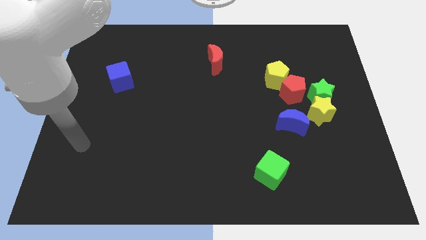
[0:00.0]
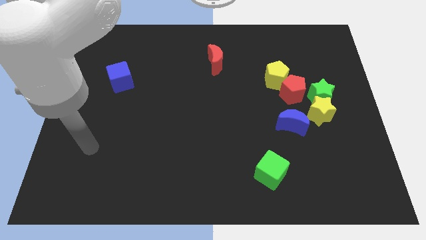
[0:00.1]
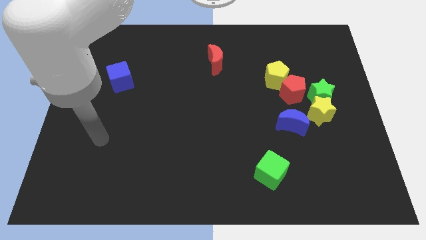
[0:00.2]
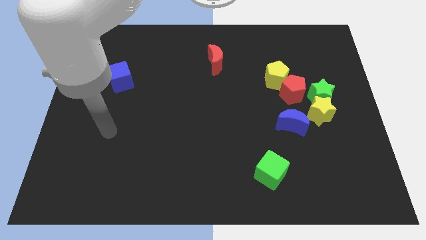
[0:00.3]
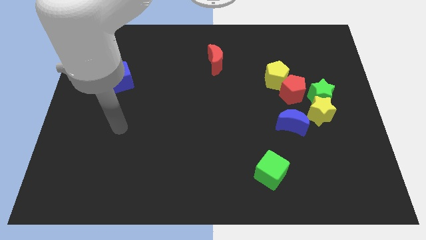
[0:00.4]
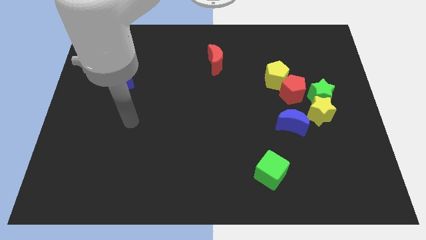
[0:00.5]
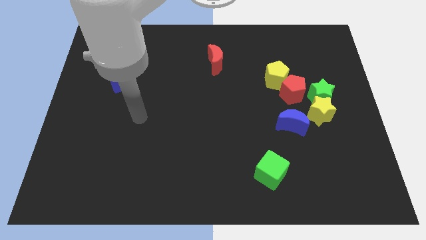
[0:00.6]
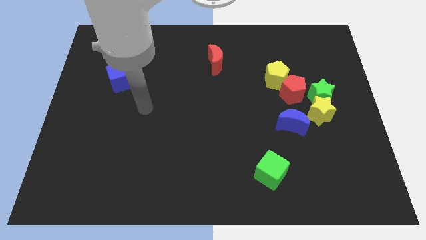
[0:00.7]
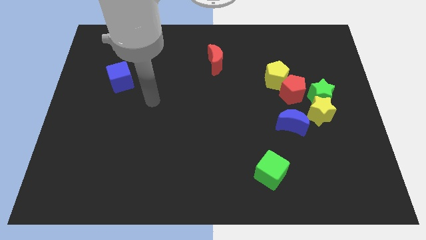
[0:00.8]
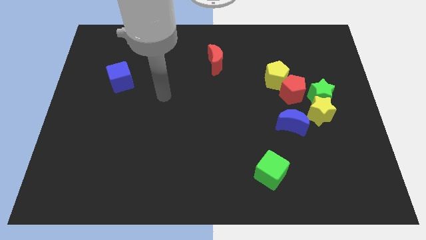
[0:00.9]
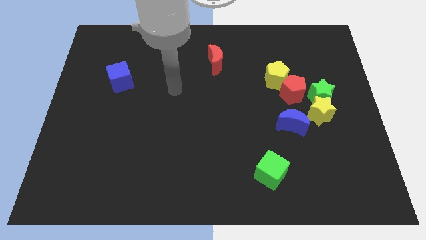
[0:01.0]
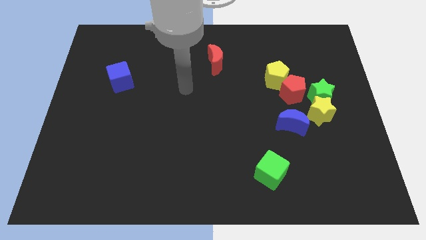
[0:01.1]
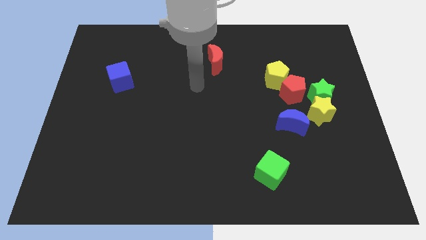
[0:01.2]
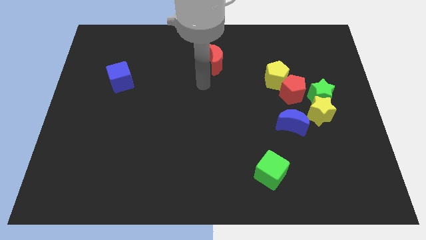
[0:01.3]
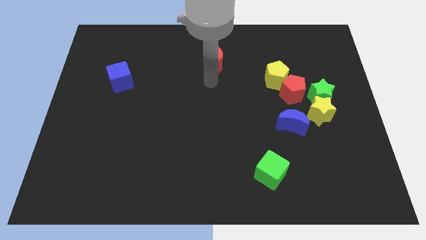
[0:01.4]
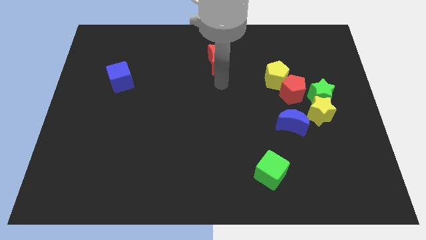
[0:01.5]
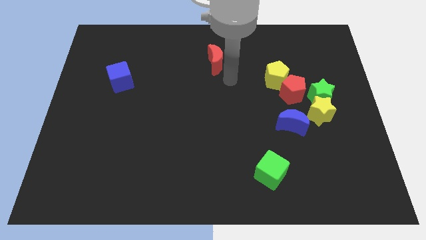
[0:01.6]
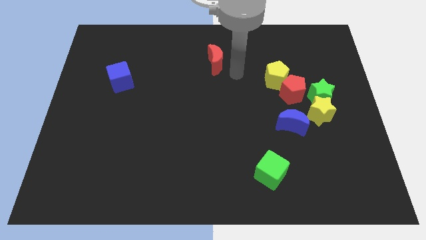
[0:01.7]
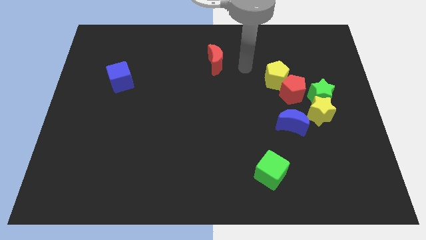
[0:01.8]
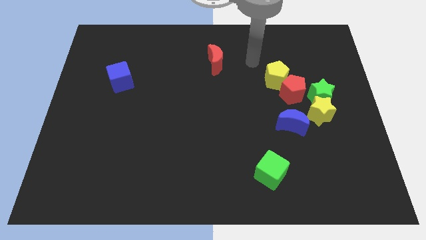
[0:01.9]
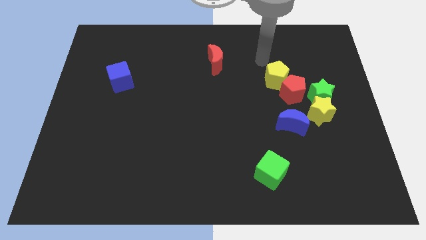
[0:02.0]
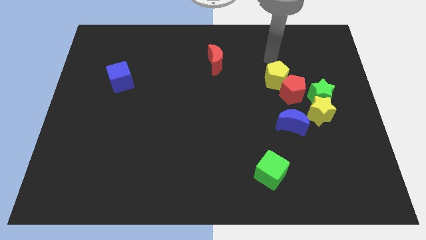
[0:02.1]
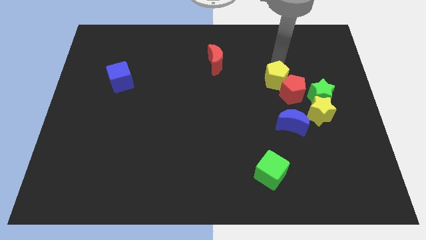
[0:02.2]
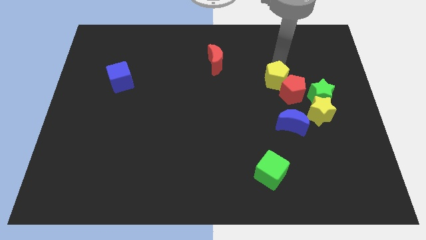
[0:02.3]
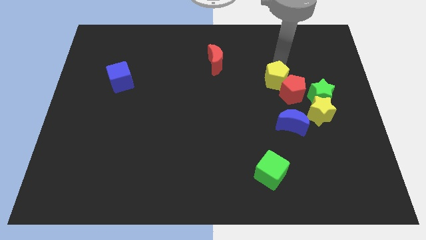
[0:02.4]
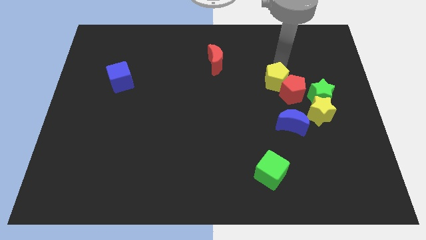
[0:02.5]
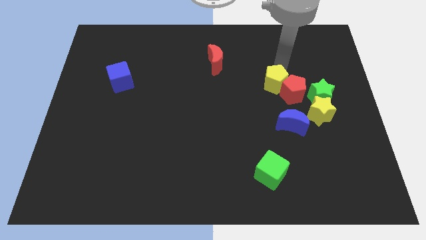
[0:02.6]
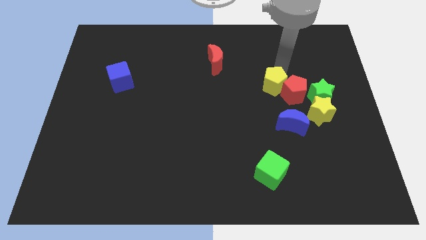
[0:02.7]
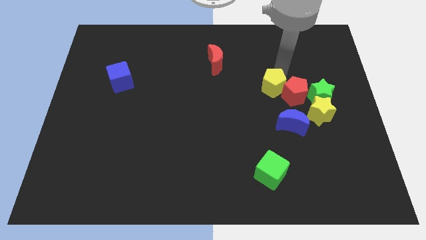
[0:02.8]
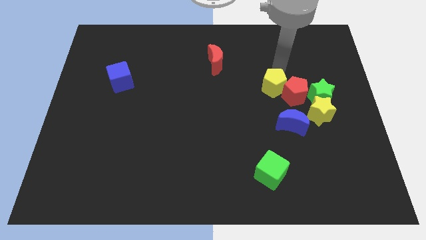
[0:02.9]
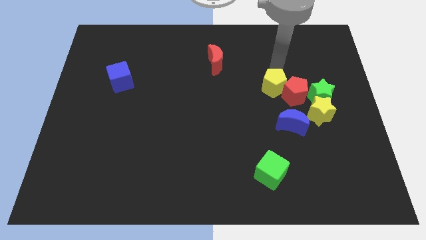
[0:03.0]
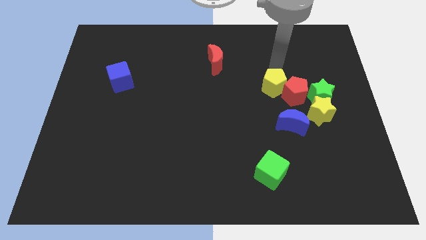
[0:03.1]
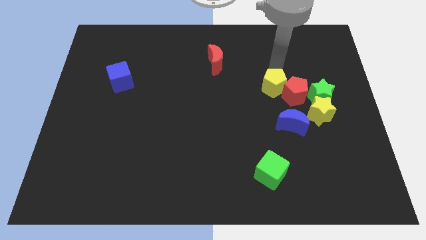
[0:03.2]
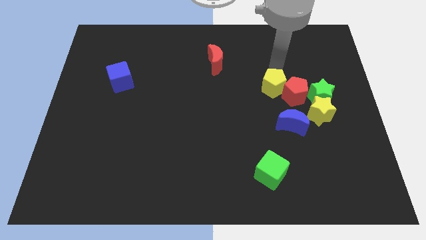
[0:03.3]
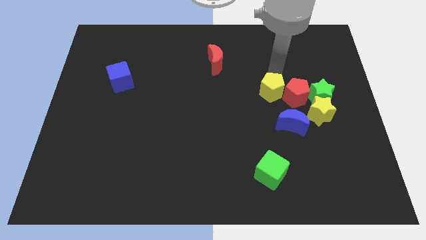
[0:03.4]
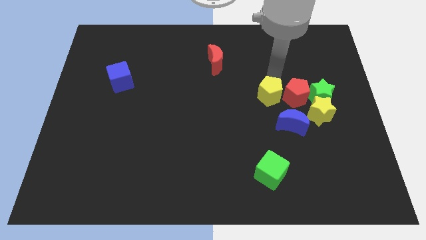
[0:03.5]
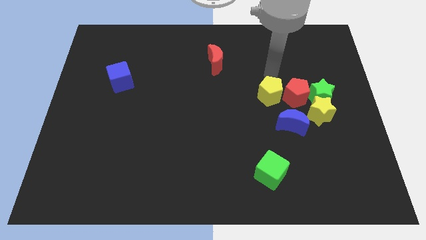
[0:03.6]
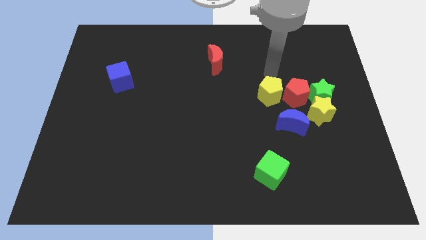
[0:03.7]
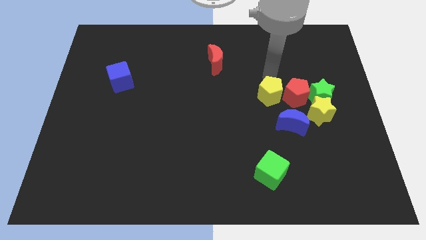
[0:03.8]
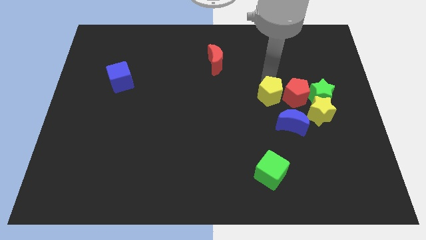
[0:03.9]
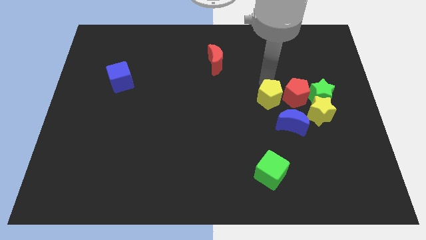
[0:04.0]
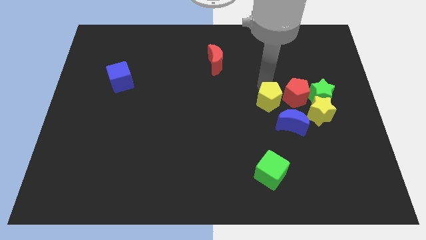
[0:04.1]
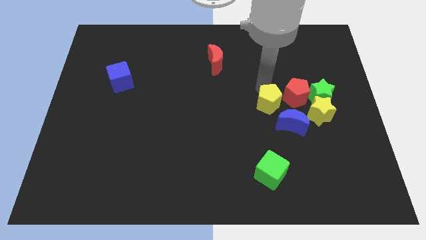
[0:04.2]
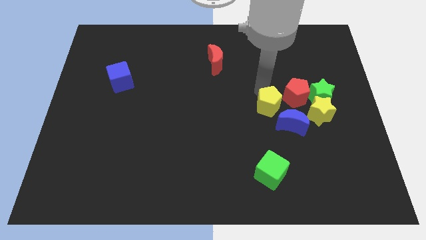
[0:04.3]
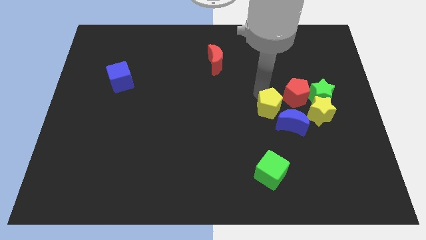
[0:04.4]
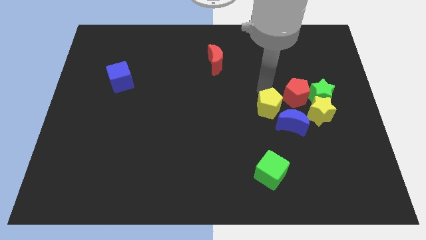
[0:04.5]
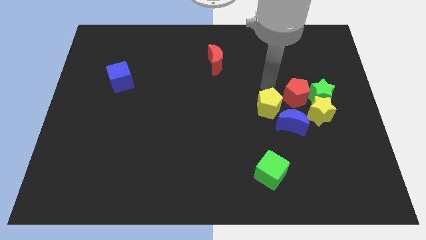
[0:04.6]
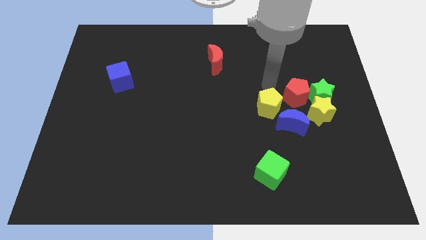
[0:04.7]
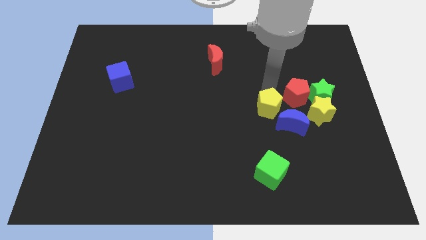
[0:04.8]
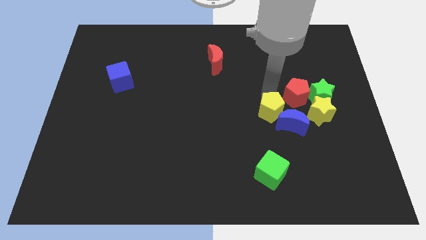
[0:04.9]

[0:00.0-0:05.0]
push the yellow pentagon to the top of the green cube

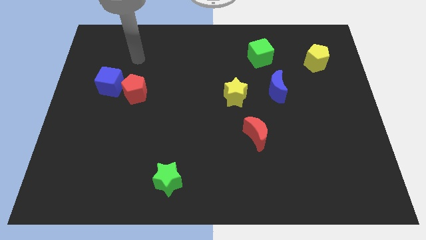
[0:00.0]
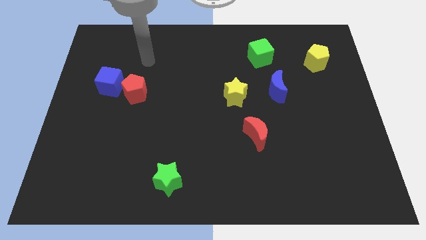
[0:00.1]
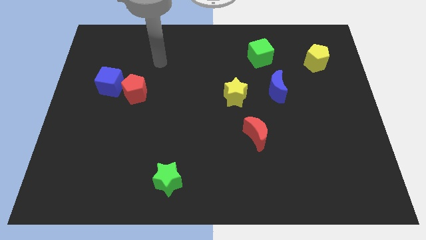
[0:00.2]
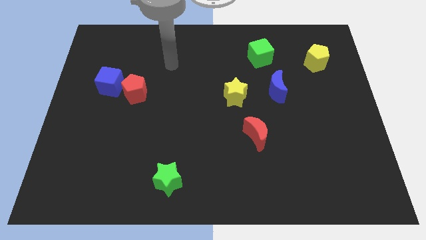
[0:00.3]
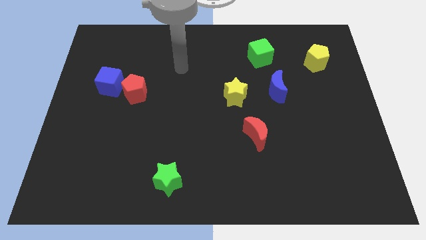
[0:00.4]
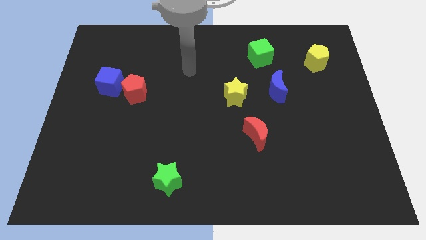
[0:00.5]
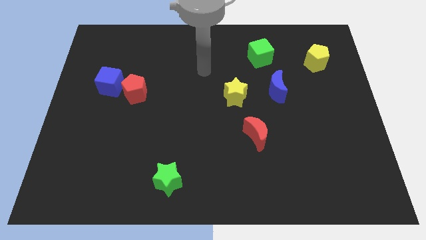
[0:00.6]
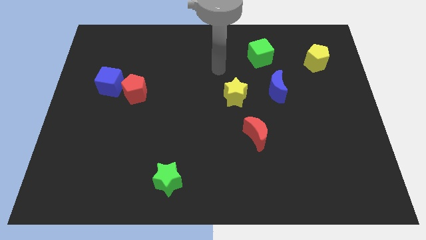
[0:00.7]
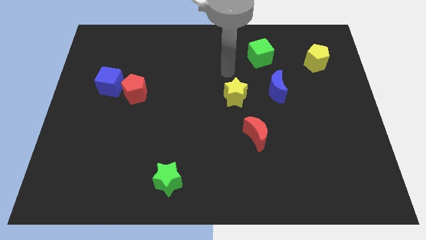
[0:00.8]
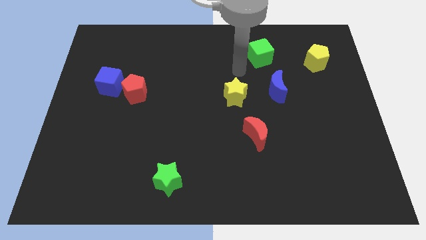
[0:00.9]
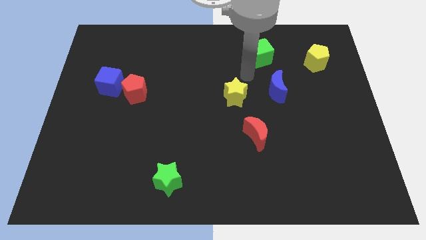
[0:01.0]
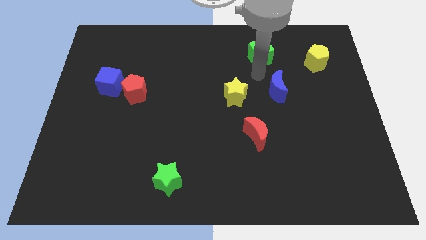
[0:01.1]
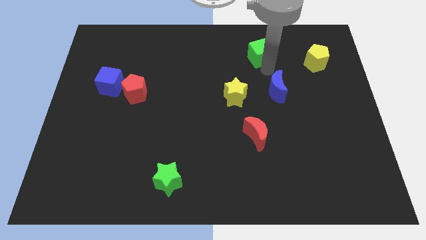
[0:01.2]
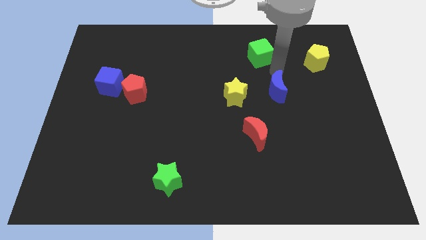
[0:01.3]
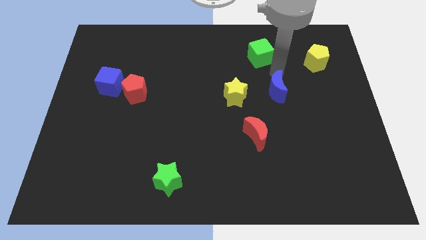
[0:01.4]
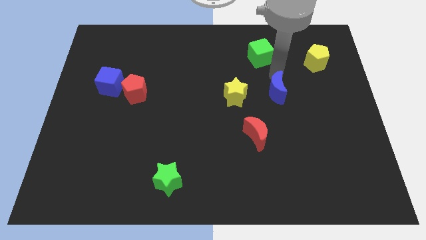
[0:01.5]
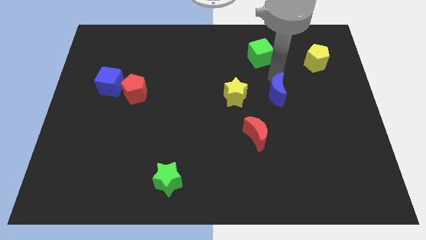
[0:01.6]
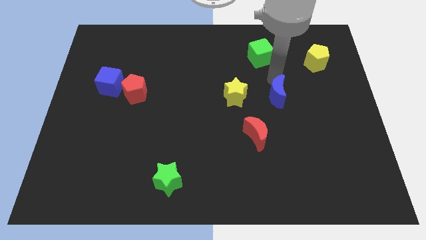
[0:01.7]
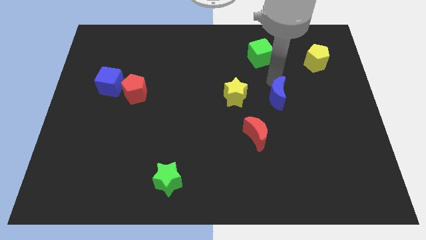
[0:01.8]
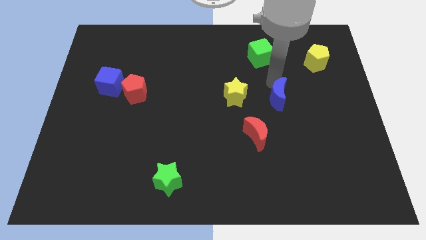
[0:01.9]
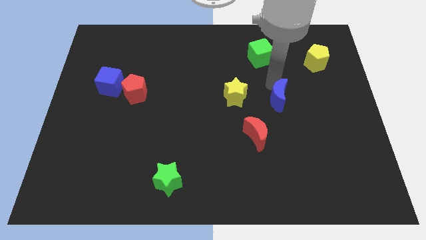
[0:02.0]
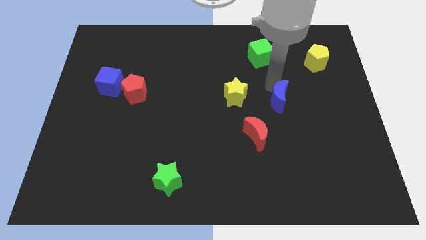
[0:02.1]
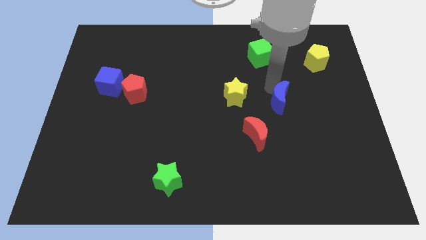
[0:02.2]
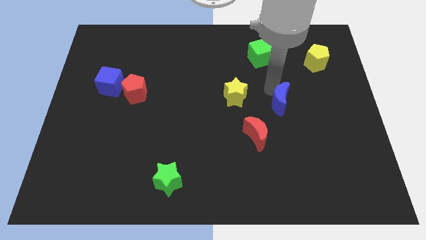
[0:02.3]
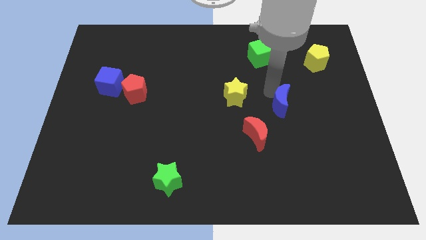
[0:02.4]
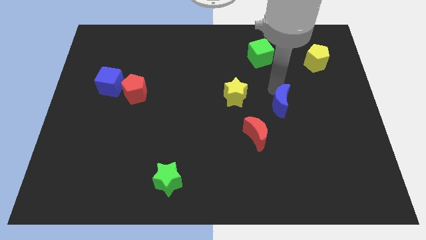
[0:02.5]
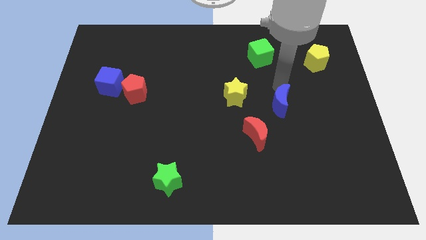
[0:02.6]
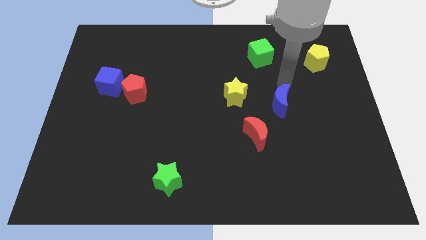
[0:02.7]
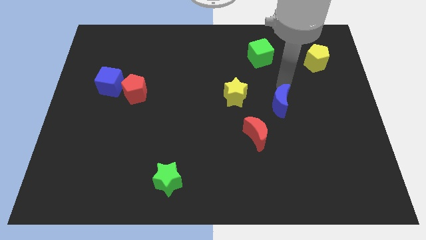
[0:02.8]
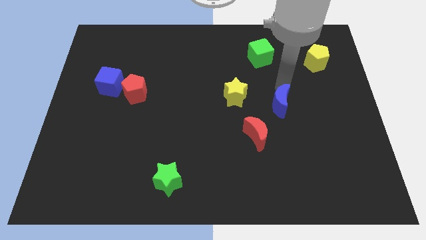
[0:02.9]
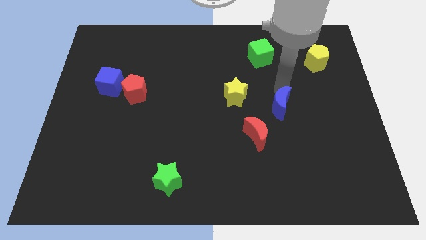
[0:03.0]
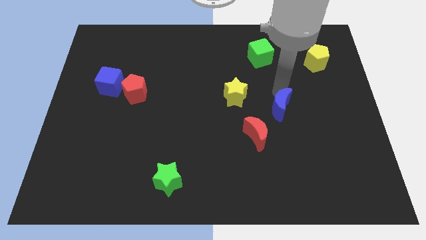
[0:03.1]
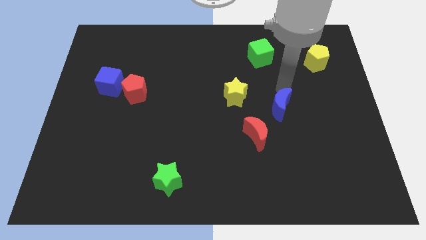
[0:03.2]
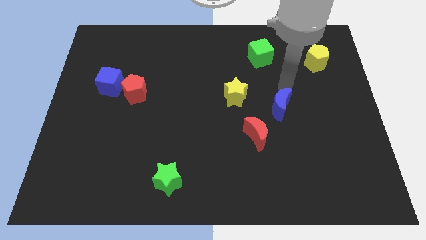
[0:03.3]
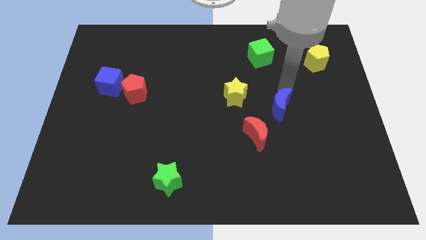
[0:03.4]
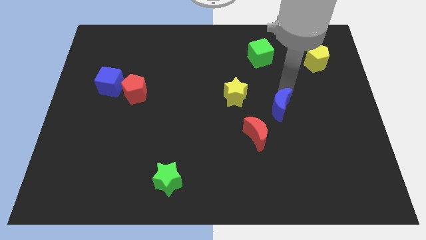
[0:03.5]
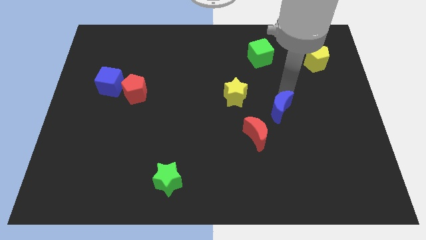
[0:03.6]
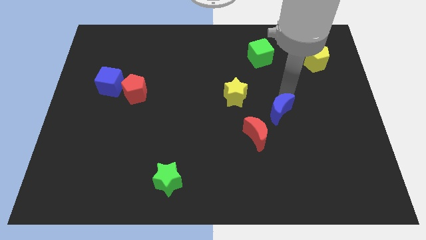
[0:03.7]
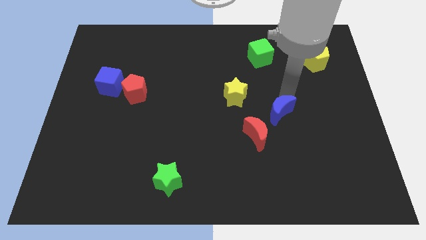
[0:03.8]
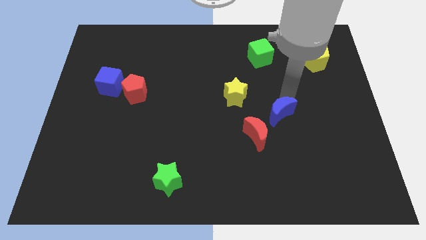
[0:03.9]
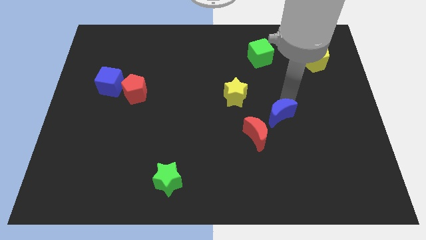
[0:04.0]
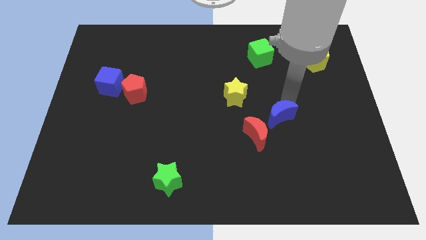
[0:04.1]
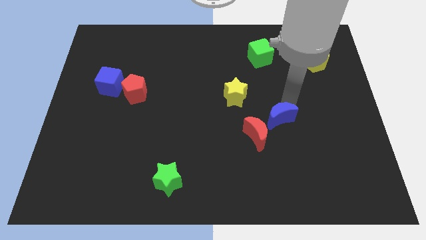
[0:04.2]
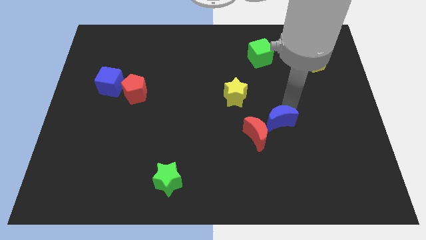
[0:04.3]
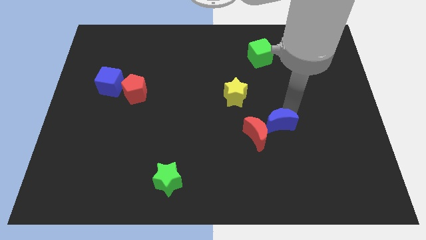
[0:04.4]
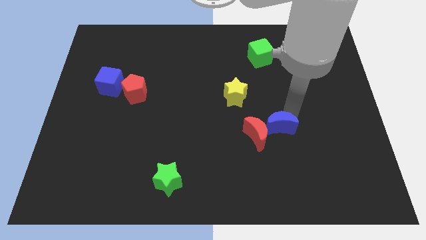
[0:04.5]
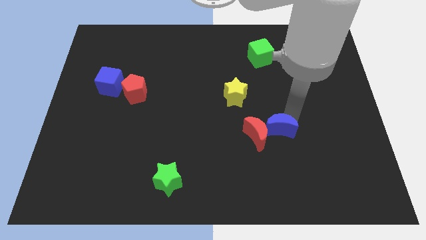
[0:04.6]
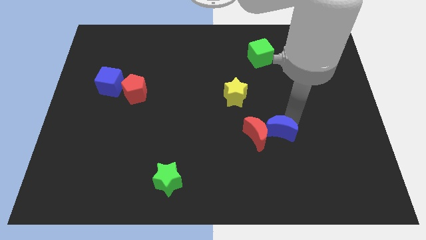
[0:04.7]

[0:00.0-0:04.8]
slide the blue moon to the bottom right side of the red moon
